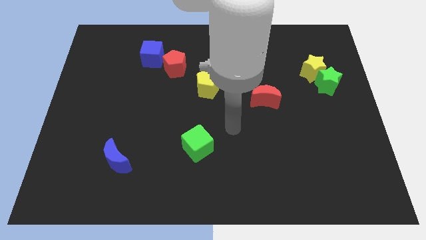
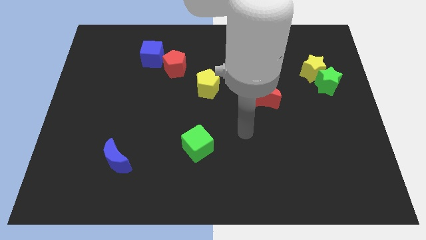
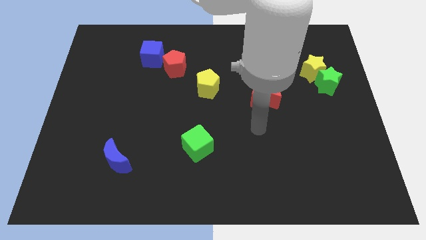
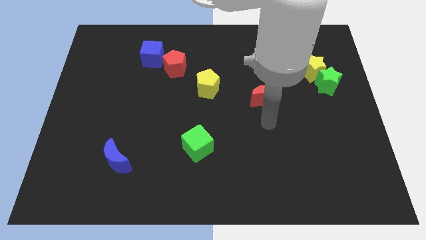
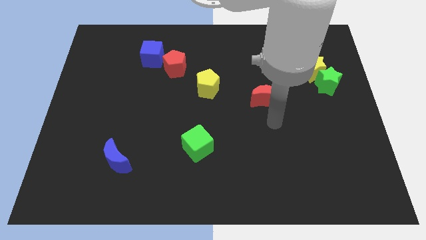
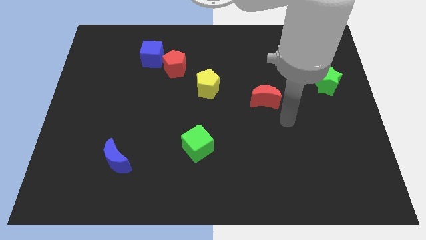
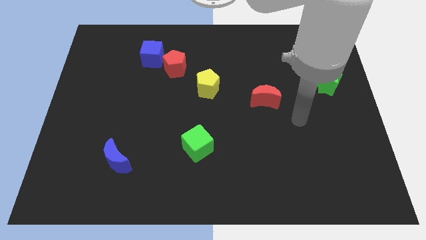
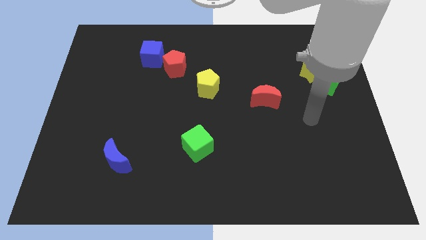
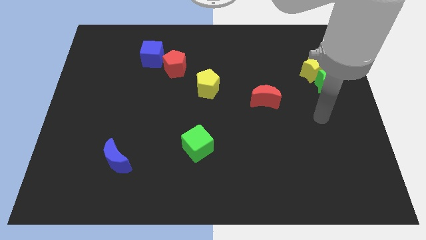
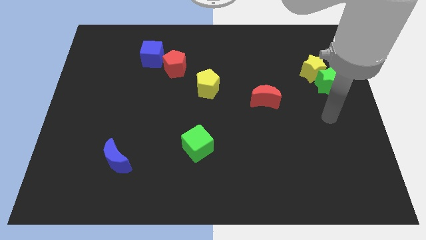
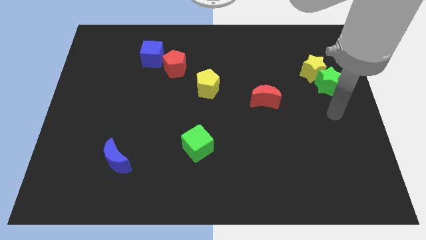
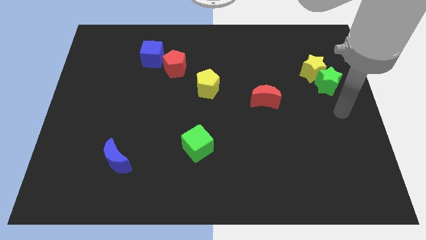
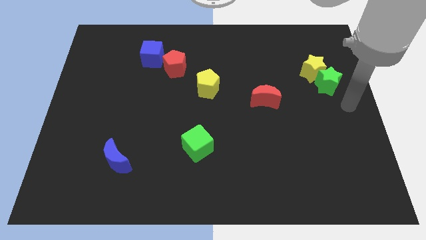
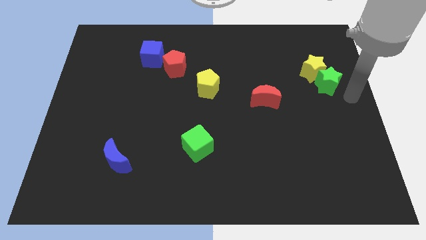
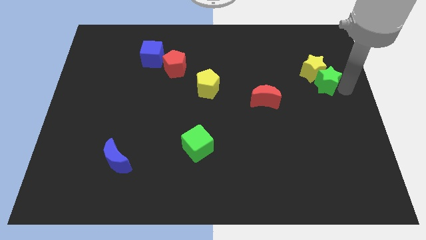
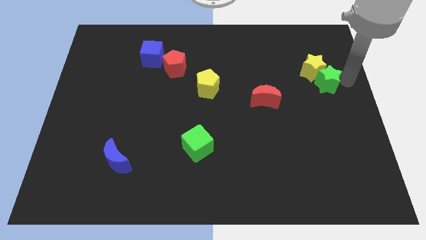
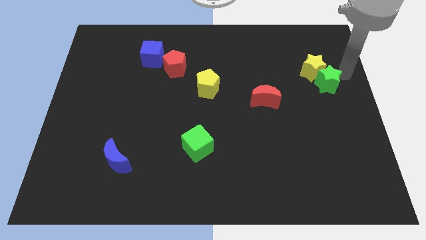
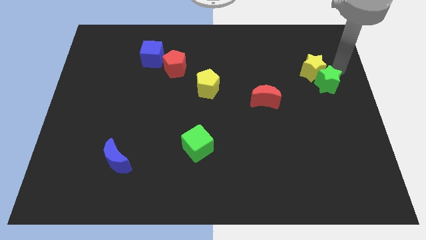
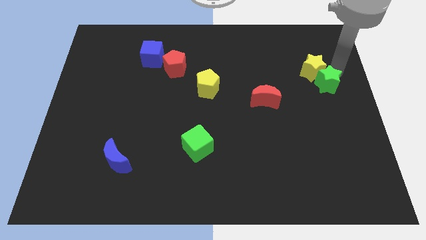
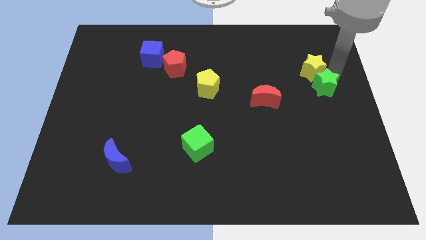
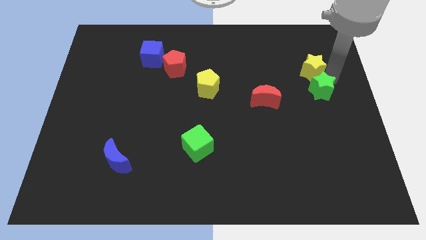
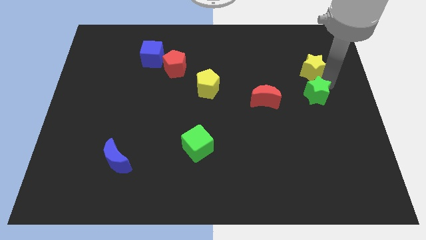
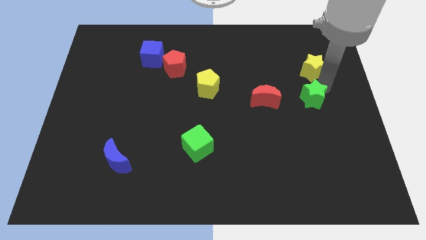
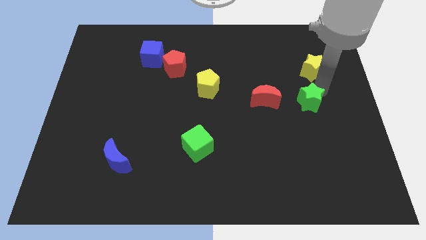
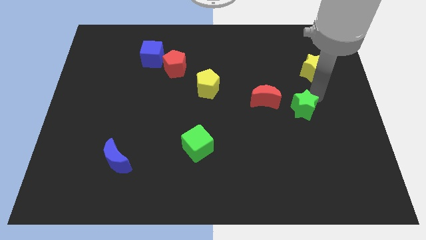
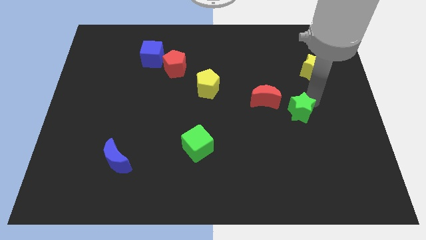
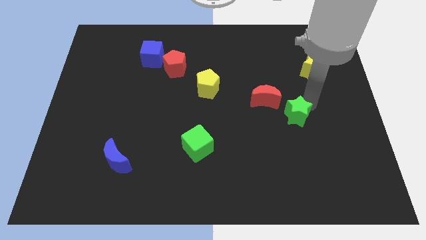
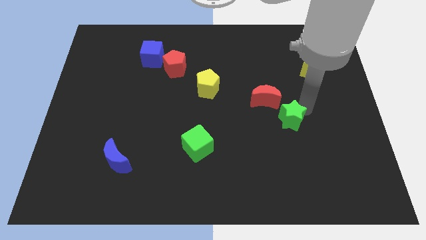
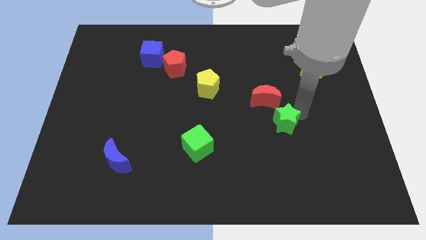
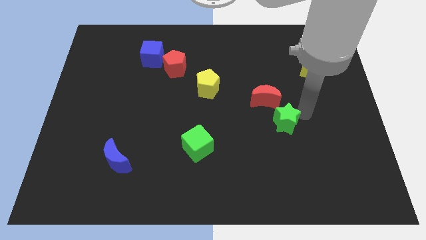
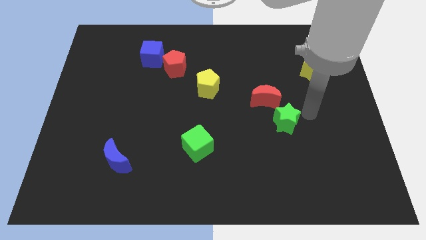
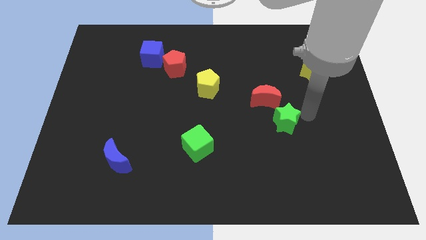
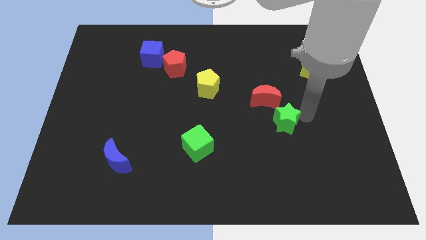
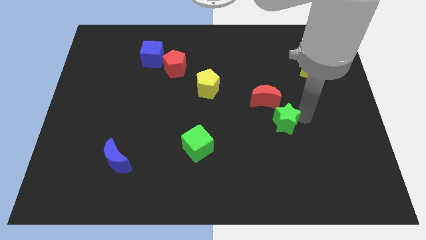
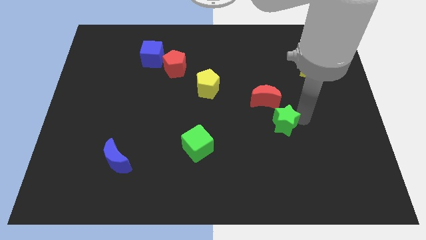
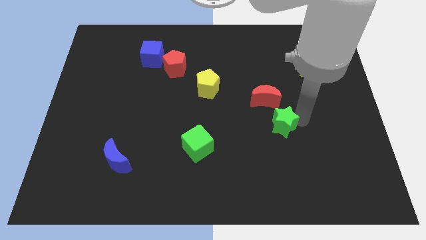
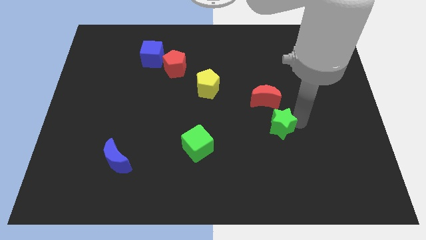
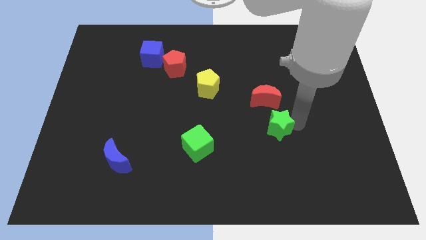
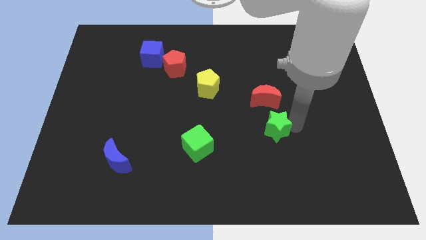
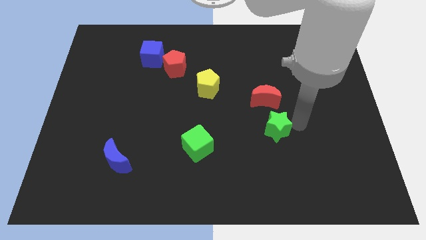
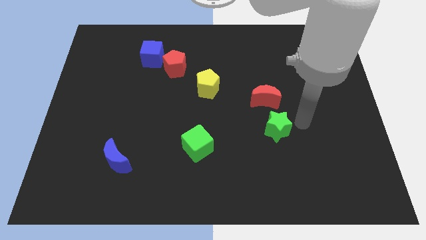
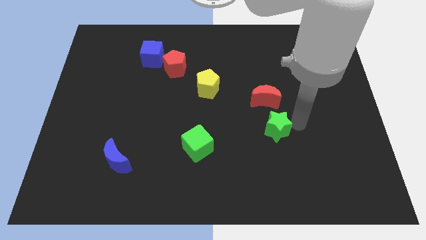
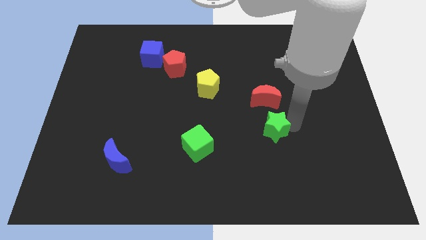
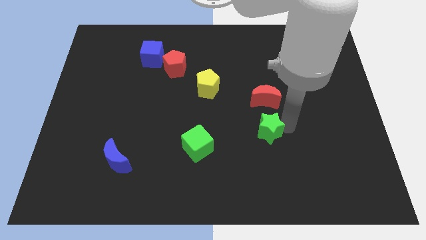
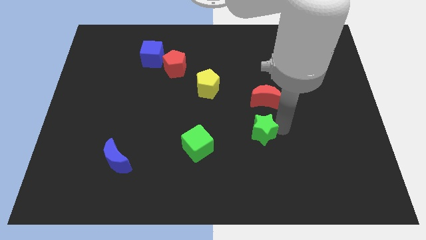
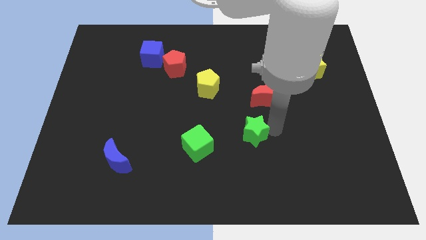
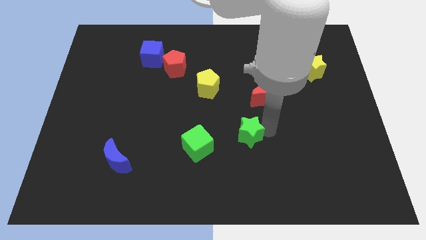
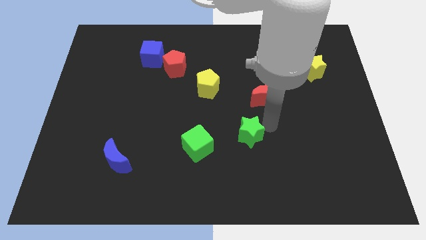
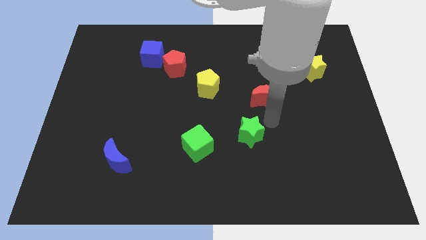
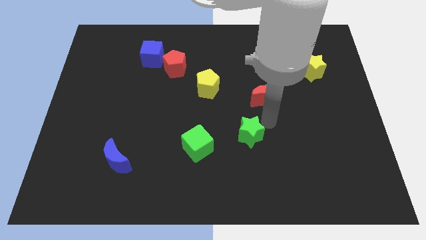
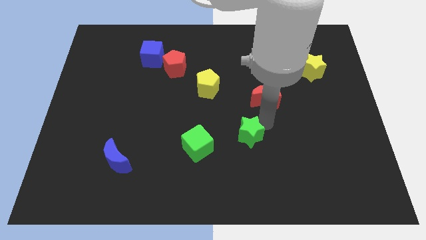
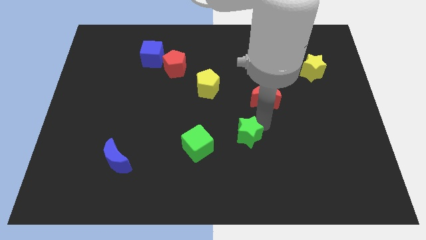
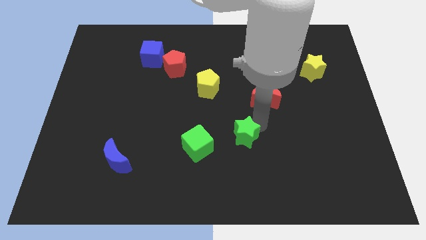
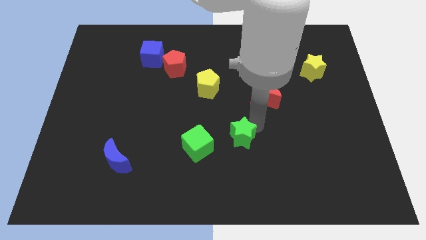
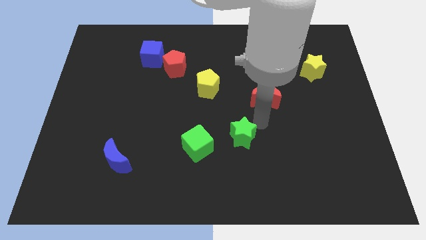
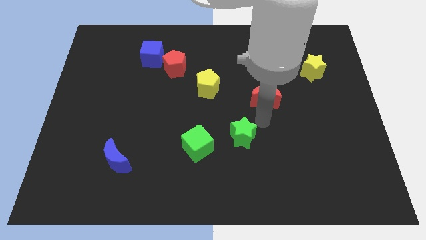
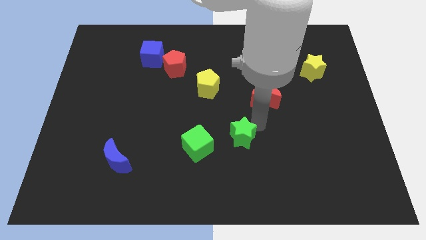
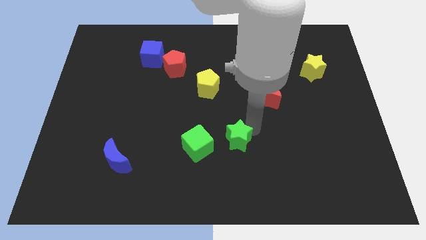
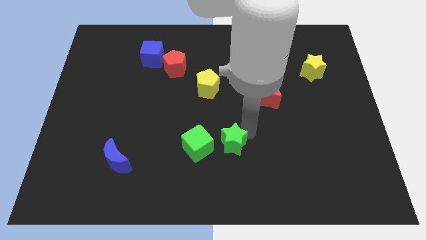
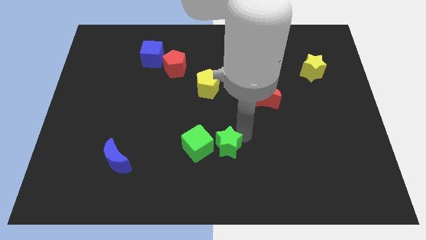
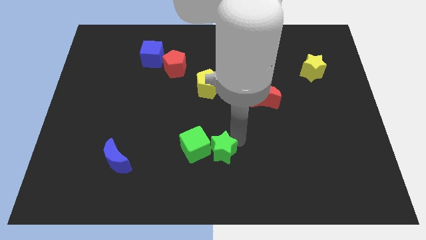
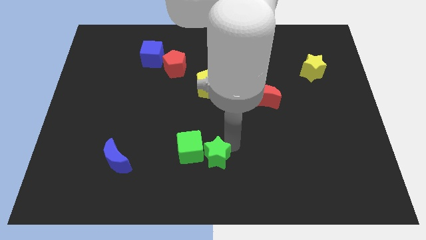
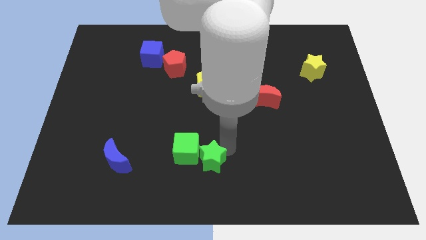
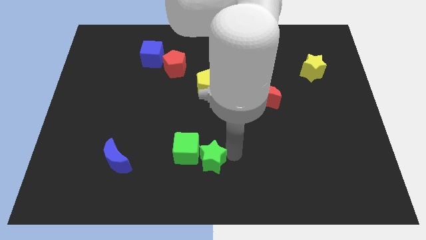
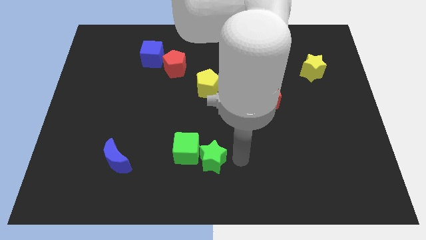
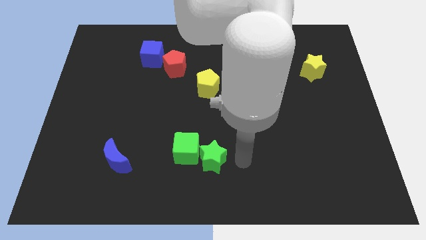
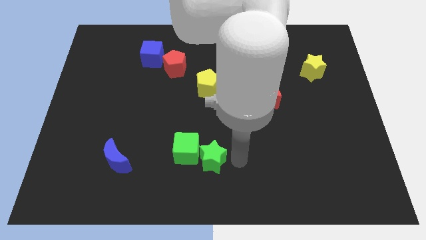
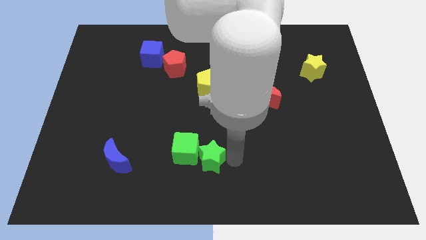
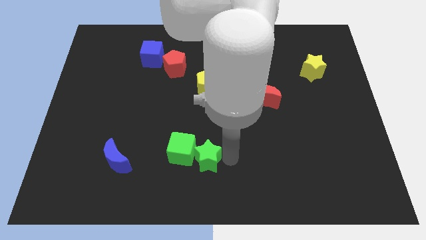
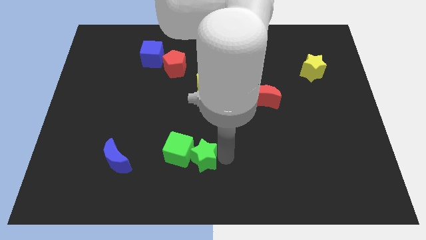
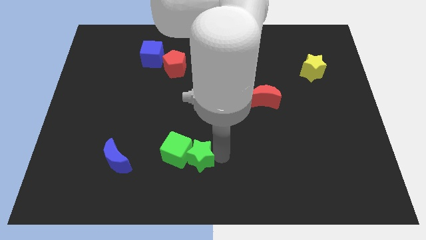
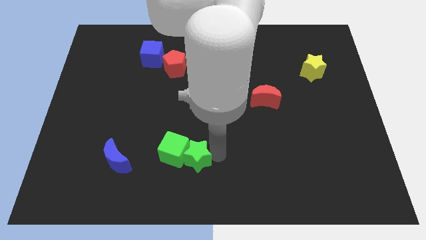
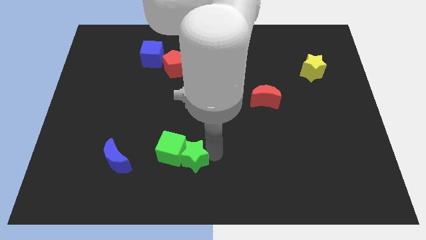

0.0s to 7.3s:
slide the green star to the right of the blue moon
